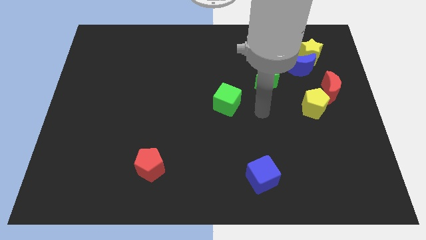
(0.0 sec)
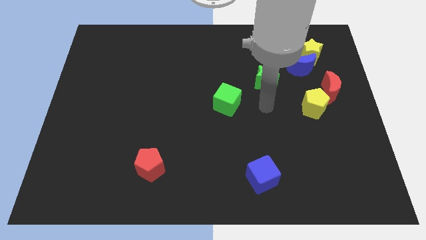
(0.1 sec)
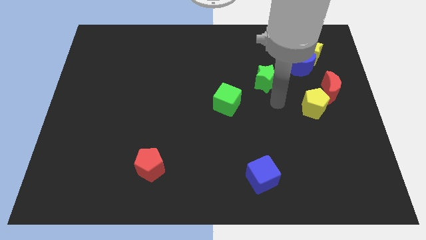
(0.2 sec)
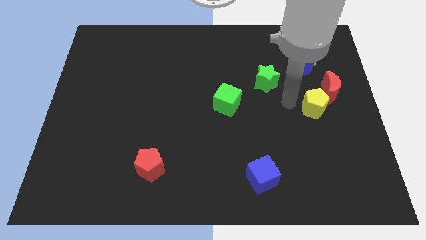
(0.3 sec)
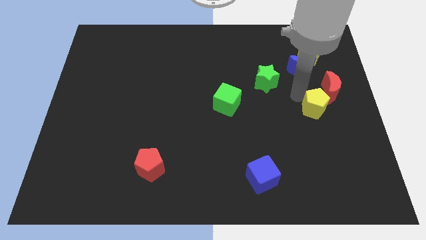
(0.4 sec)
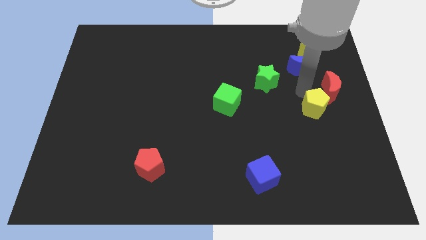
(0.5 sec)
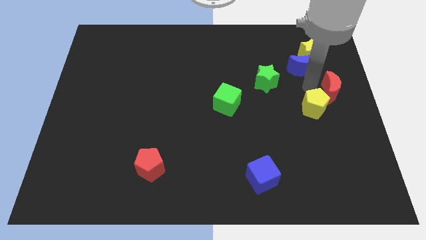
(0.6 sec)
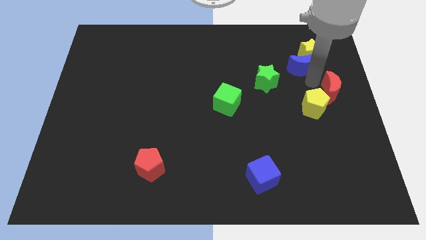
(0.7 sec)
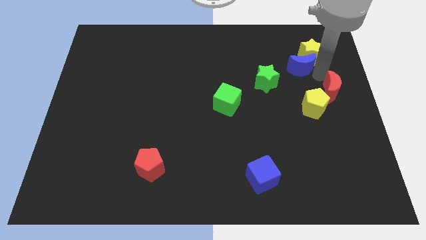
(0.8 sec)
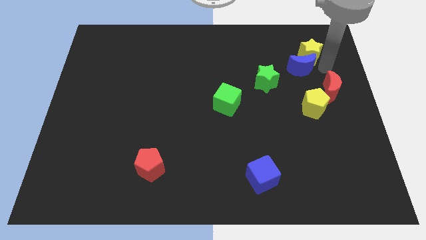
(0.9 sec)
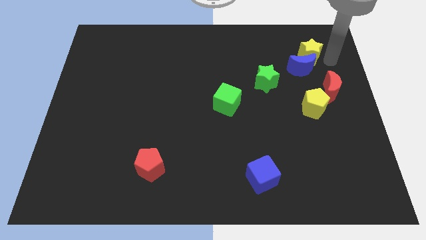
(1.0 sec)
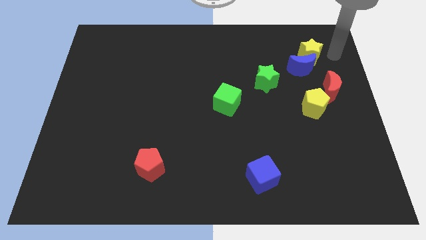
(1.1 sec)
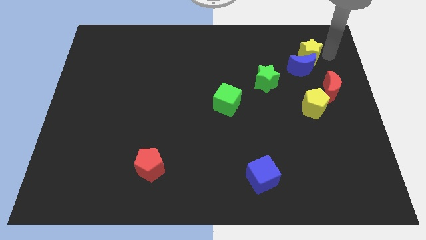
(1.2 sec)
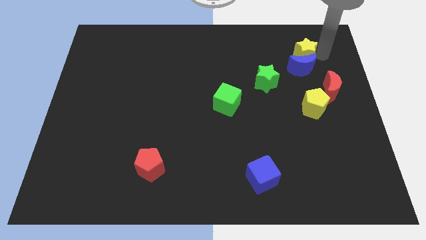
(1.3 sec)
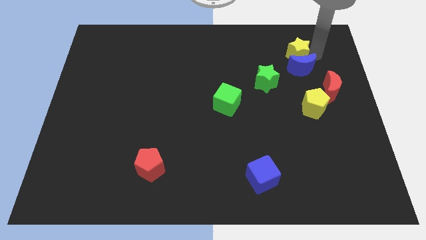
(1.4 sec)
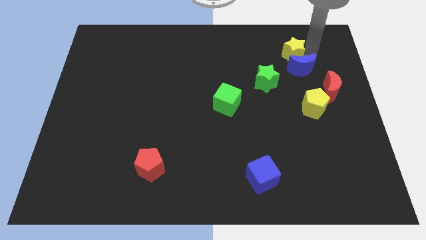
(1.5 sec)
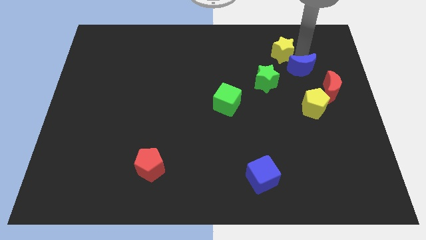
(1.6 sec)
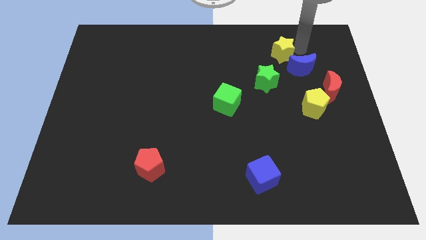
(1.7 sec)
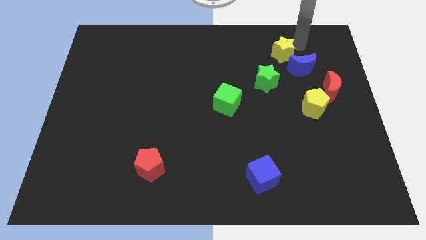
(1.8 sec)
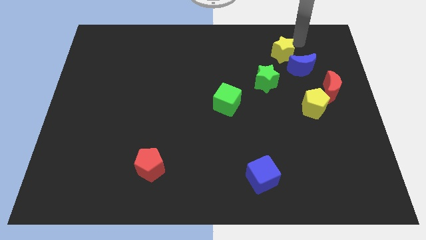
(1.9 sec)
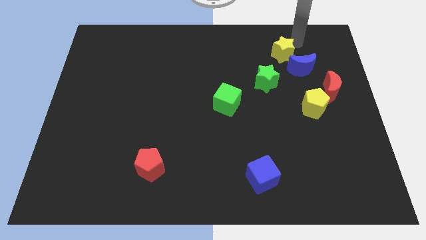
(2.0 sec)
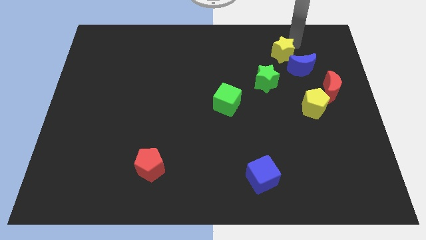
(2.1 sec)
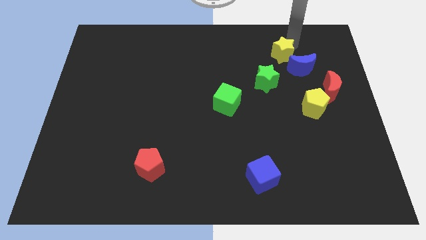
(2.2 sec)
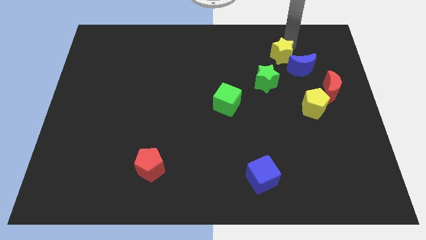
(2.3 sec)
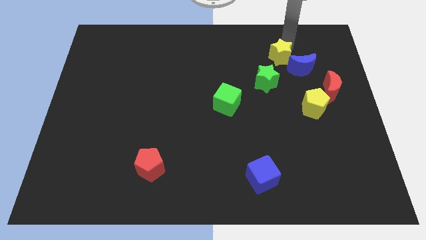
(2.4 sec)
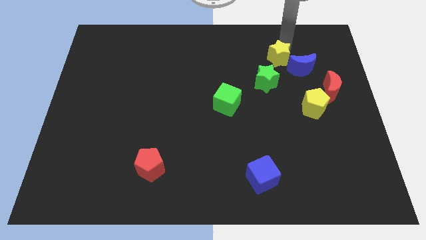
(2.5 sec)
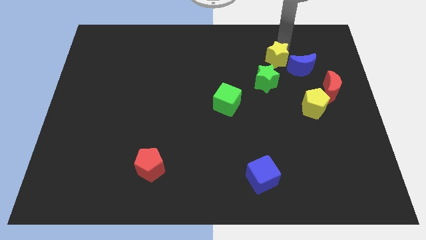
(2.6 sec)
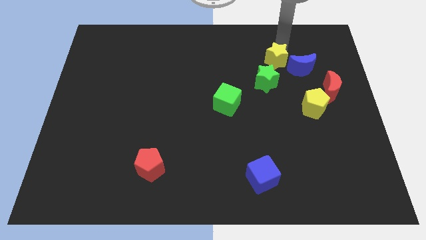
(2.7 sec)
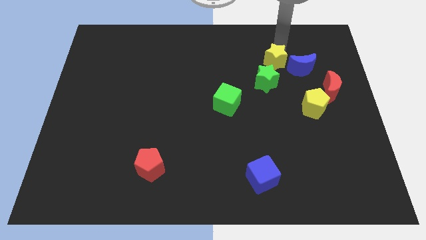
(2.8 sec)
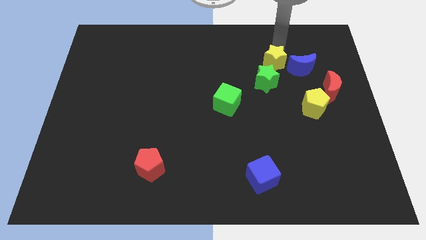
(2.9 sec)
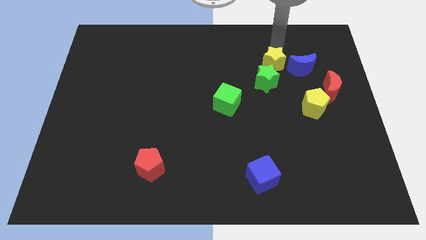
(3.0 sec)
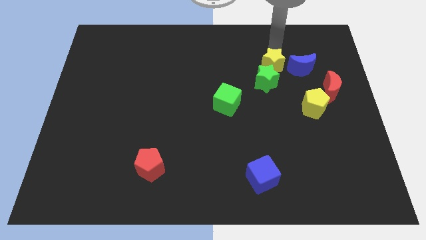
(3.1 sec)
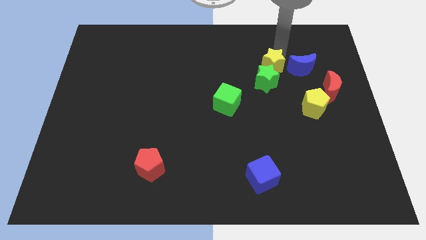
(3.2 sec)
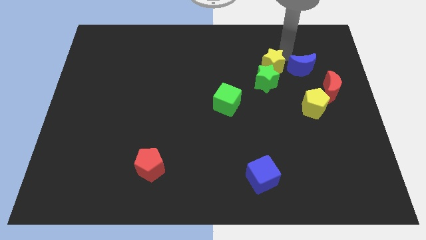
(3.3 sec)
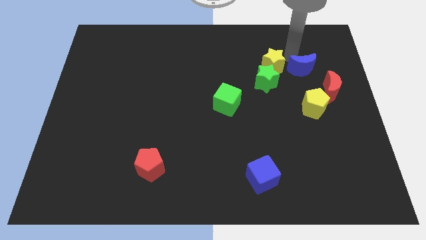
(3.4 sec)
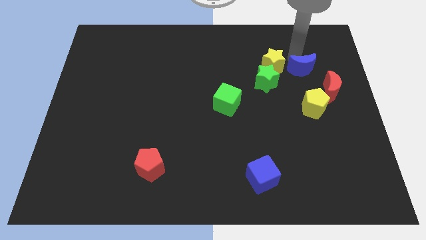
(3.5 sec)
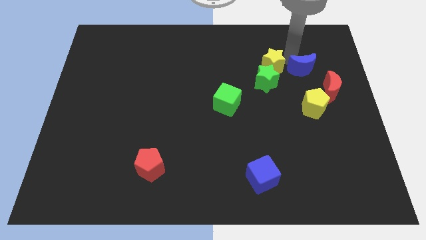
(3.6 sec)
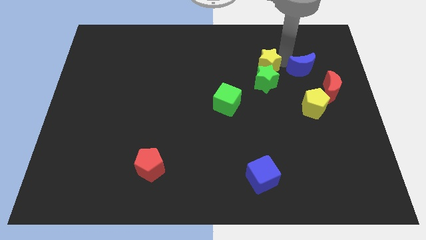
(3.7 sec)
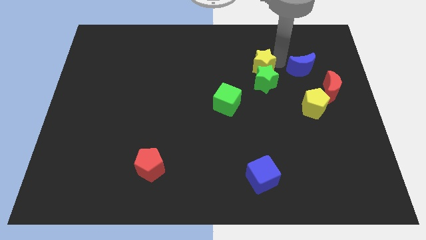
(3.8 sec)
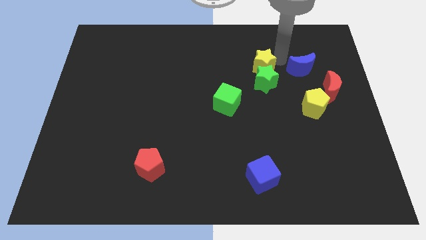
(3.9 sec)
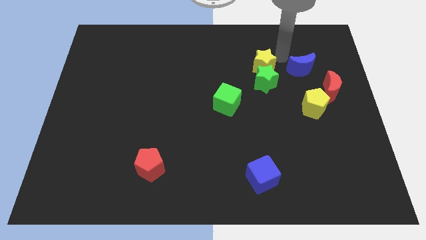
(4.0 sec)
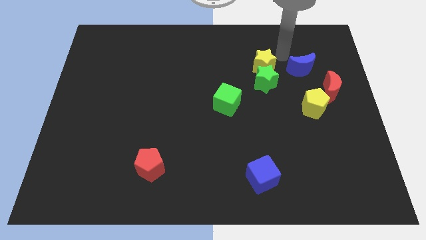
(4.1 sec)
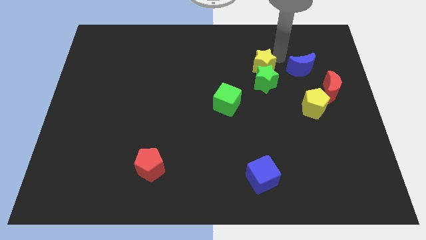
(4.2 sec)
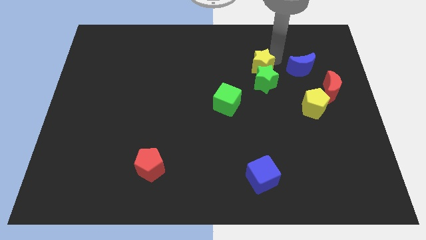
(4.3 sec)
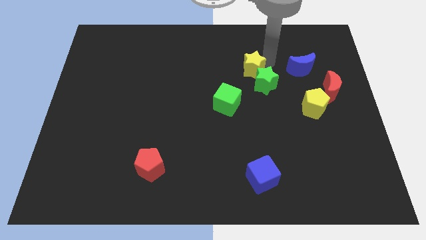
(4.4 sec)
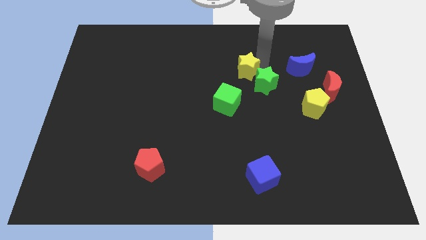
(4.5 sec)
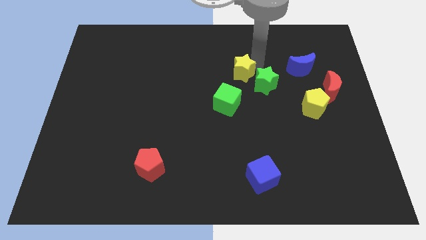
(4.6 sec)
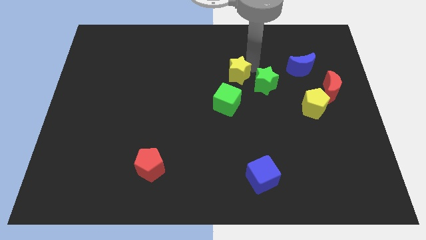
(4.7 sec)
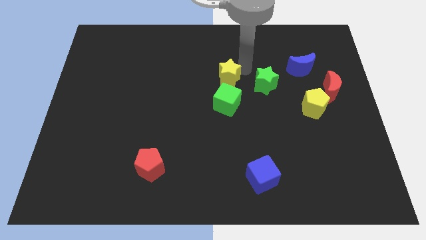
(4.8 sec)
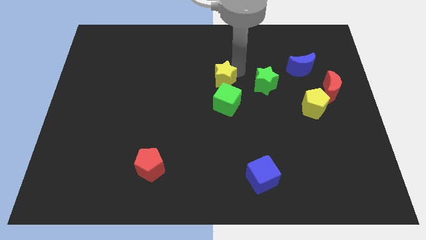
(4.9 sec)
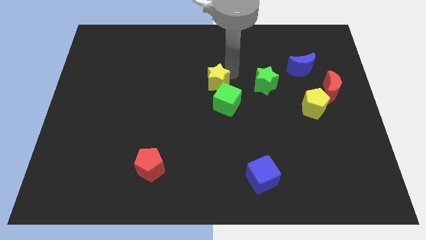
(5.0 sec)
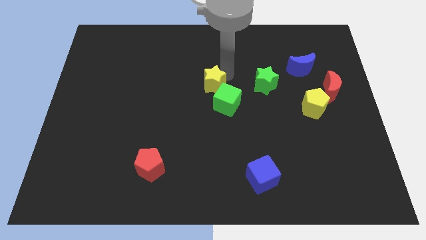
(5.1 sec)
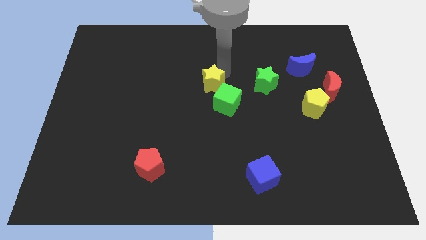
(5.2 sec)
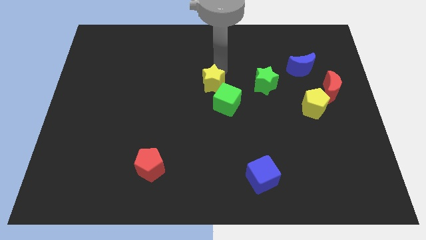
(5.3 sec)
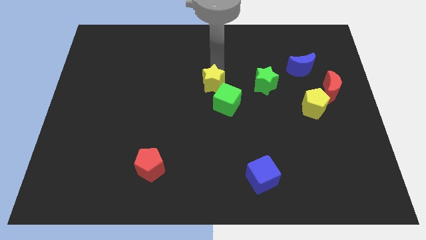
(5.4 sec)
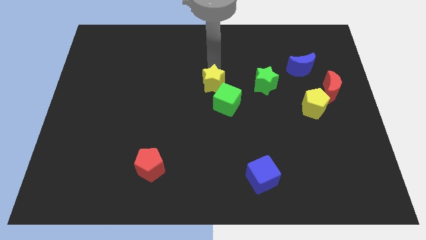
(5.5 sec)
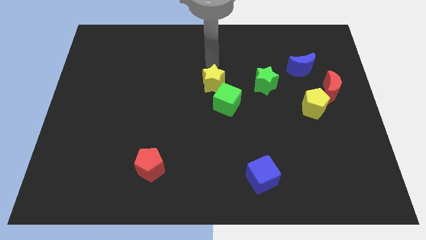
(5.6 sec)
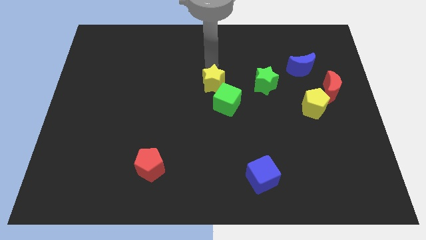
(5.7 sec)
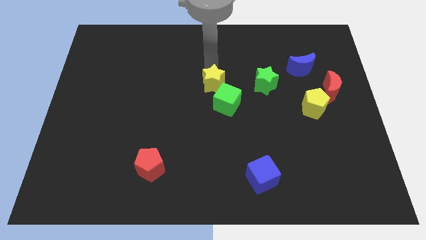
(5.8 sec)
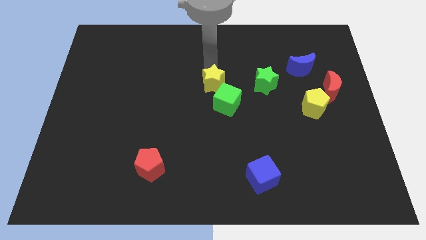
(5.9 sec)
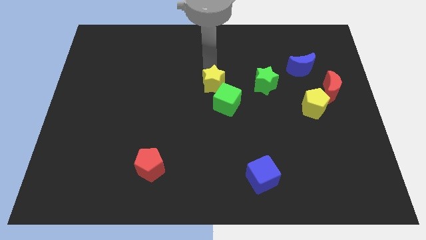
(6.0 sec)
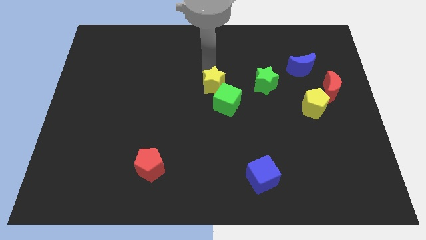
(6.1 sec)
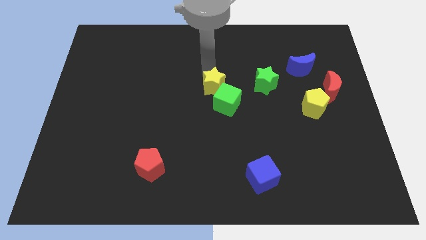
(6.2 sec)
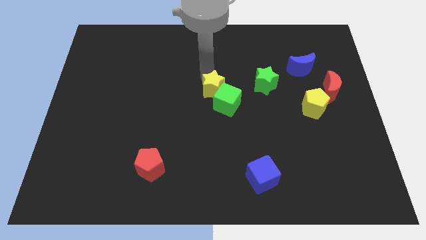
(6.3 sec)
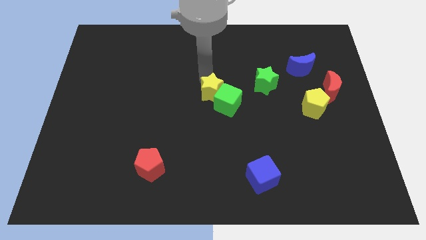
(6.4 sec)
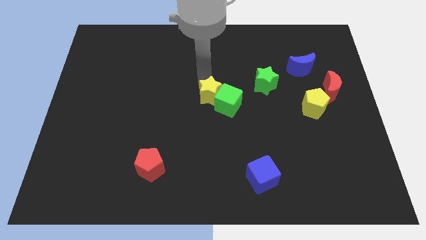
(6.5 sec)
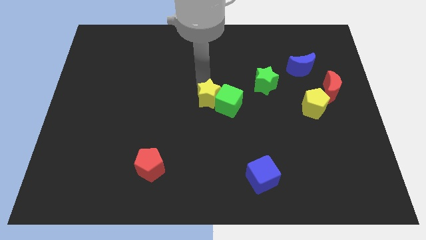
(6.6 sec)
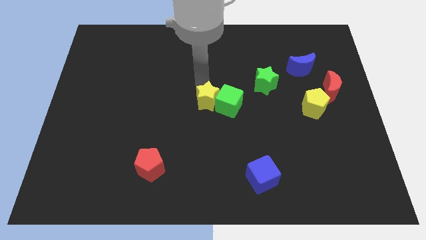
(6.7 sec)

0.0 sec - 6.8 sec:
push the yellow star to the bottom left of the green cube
